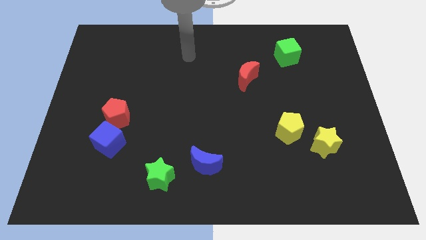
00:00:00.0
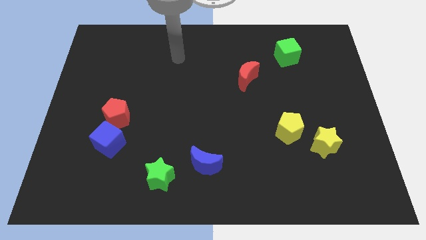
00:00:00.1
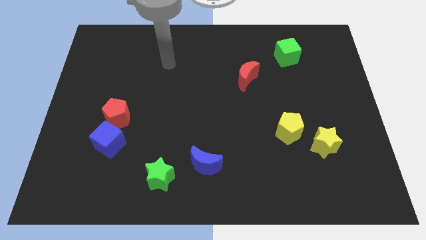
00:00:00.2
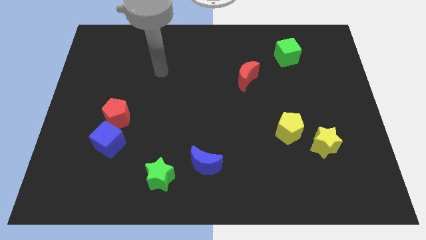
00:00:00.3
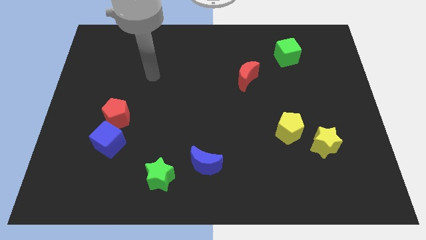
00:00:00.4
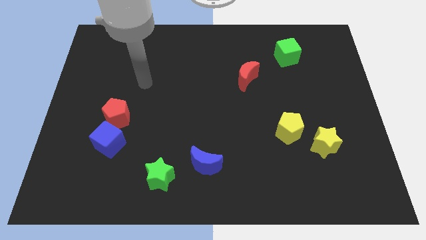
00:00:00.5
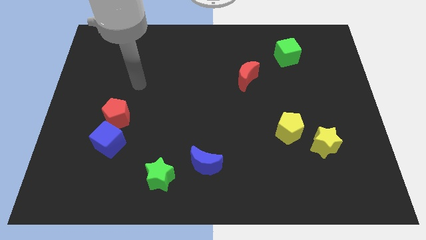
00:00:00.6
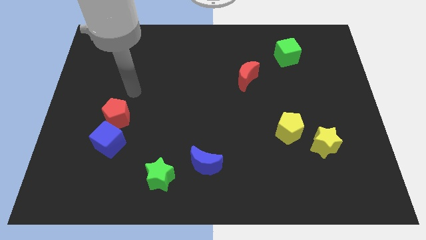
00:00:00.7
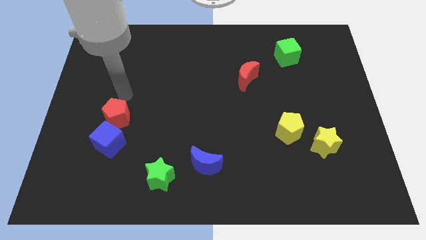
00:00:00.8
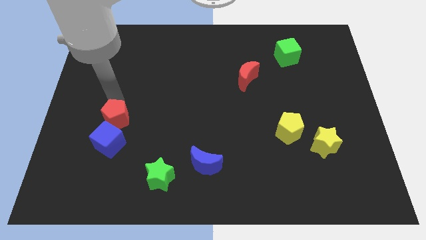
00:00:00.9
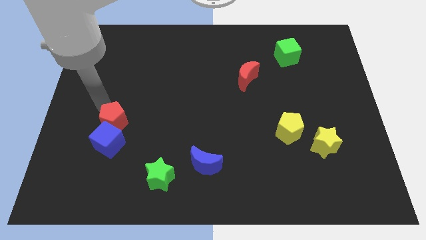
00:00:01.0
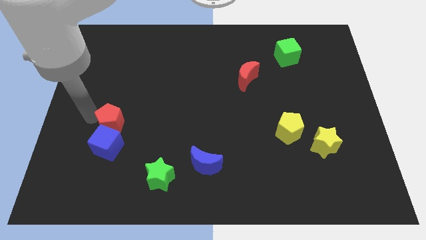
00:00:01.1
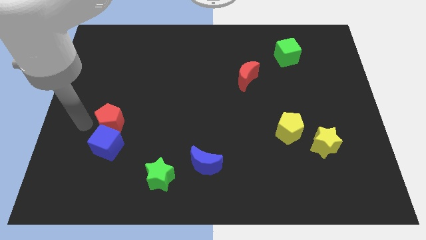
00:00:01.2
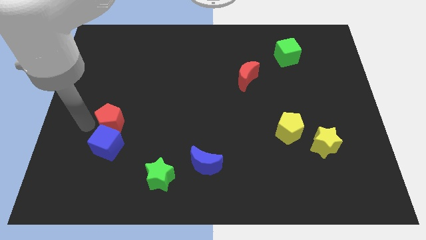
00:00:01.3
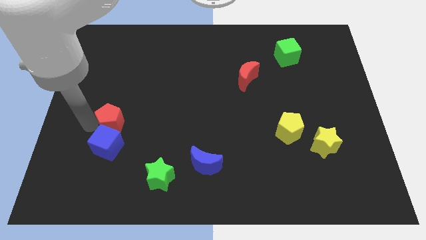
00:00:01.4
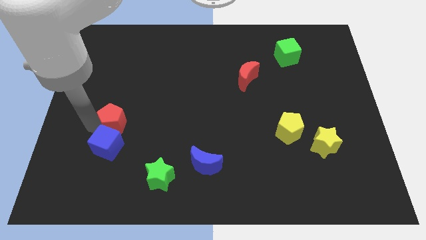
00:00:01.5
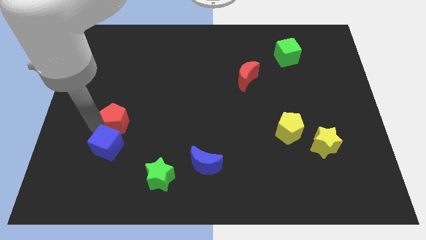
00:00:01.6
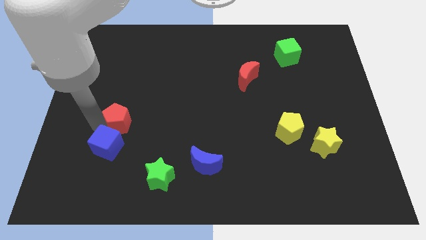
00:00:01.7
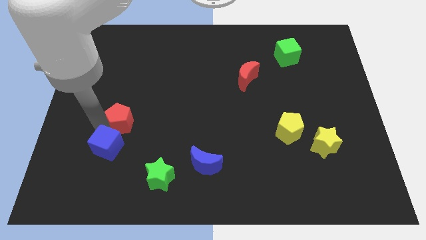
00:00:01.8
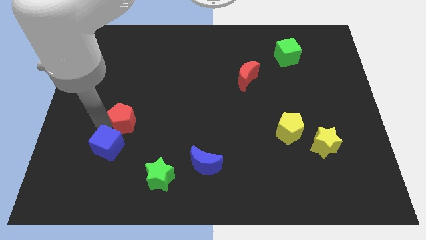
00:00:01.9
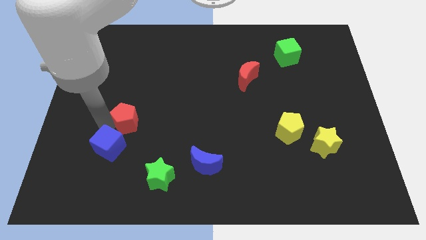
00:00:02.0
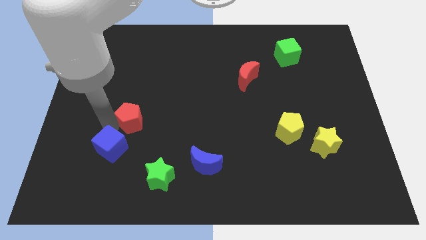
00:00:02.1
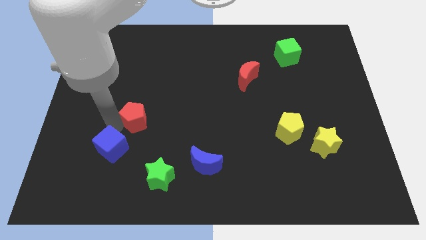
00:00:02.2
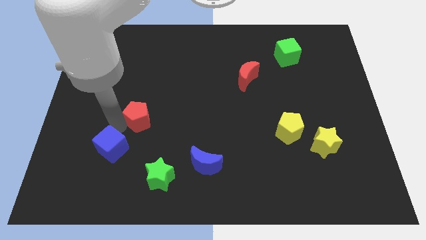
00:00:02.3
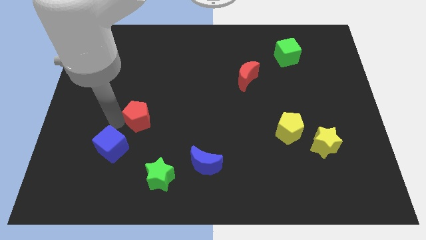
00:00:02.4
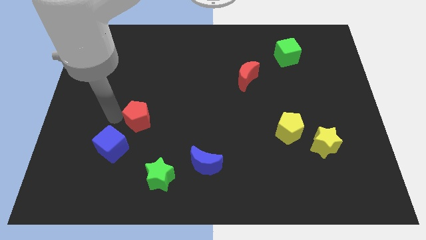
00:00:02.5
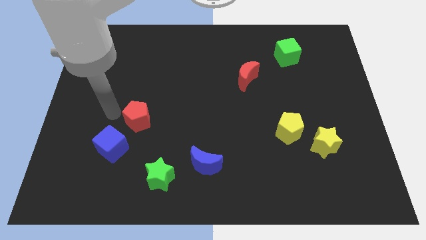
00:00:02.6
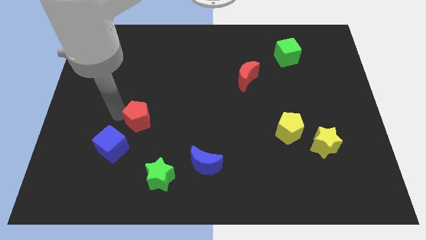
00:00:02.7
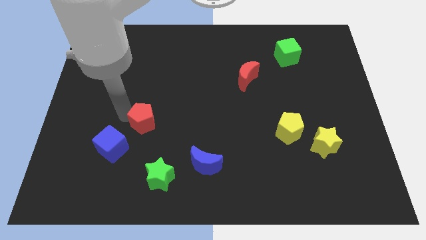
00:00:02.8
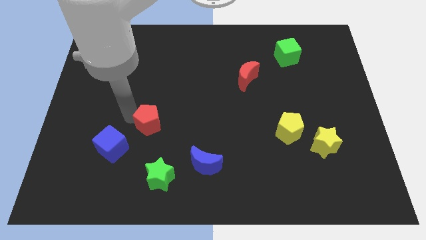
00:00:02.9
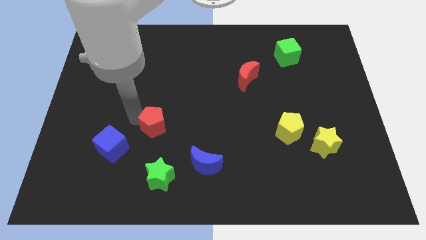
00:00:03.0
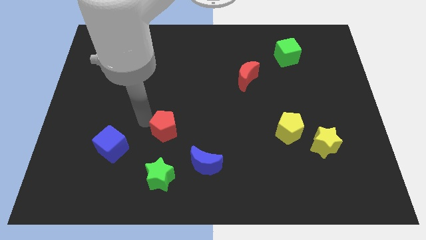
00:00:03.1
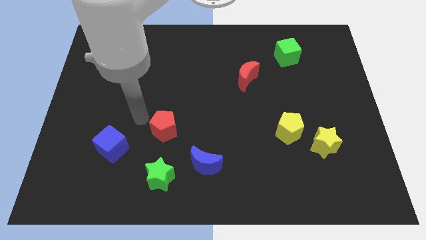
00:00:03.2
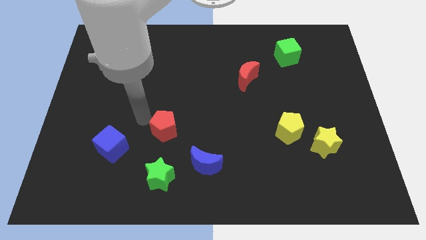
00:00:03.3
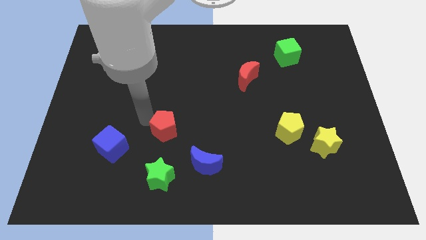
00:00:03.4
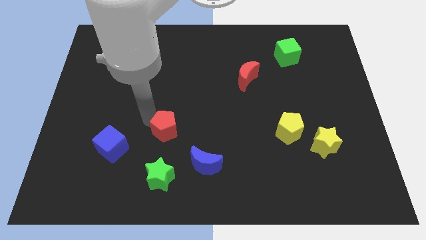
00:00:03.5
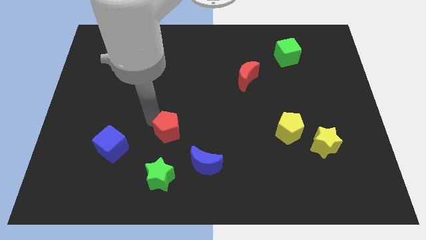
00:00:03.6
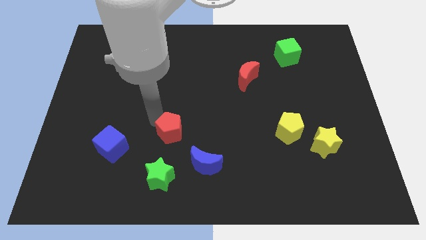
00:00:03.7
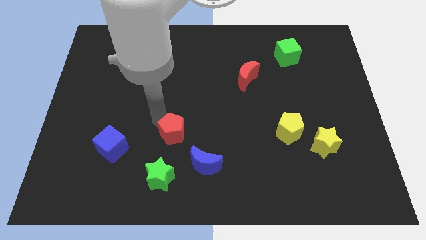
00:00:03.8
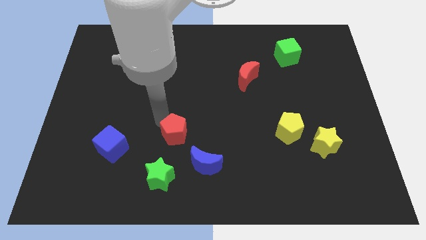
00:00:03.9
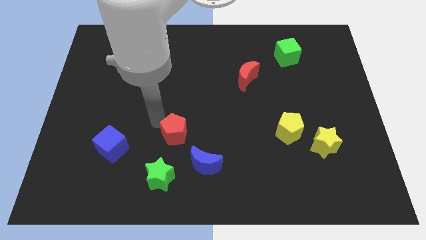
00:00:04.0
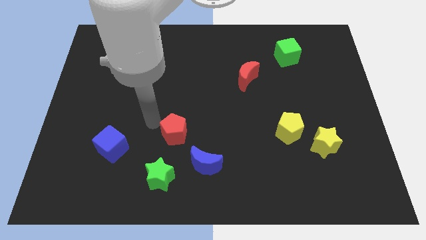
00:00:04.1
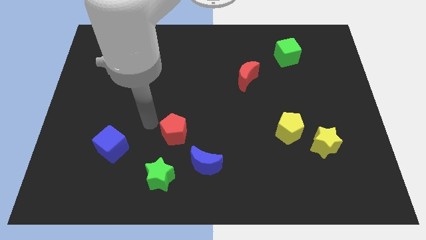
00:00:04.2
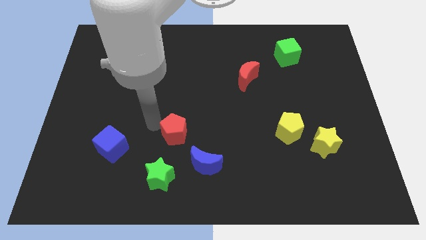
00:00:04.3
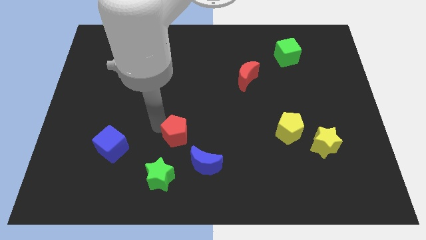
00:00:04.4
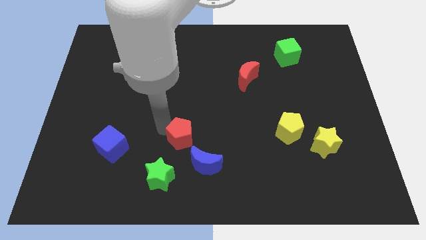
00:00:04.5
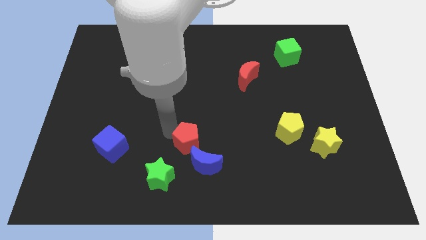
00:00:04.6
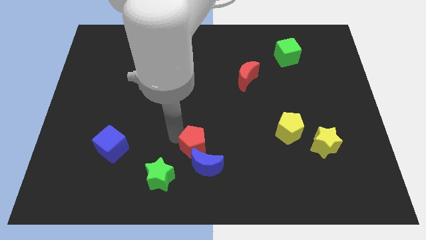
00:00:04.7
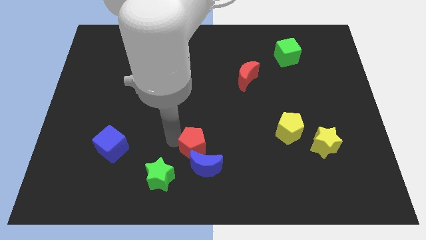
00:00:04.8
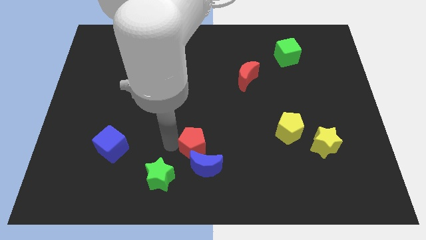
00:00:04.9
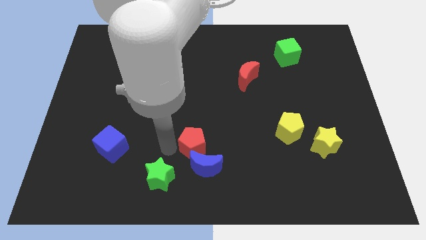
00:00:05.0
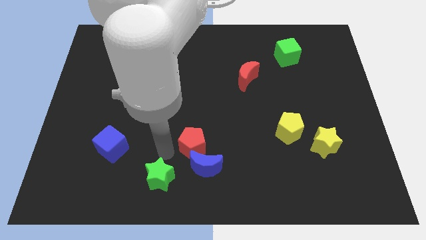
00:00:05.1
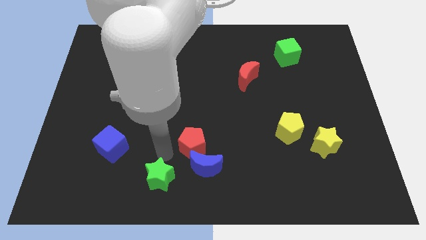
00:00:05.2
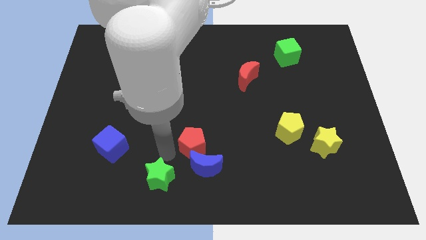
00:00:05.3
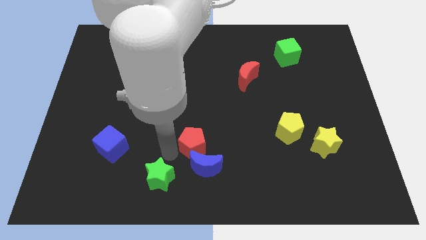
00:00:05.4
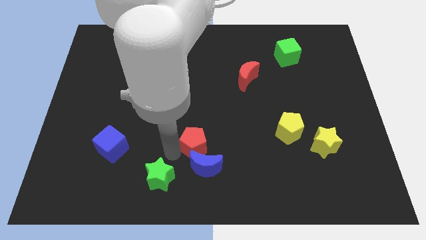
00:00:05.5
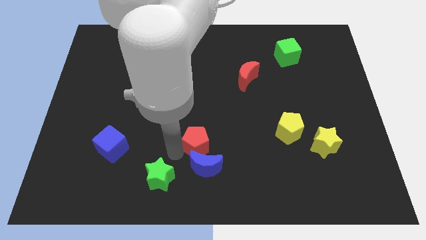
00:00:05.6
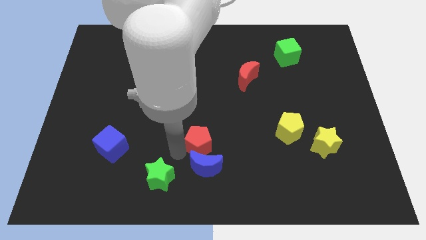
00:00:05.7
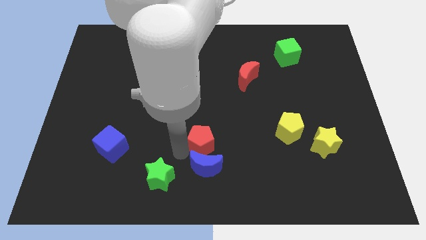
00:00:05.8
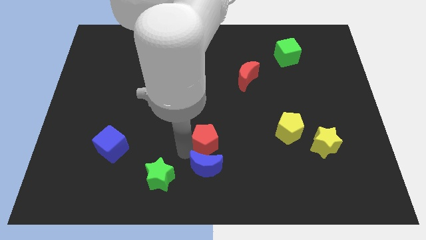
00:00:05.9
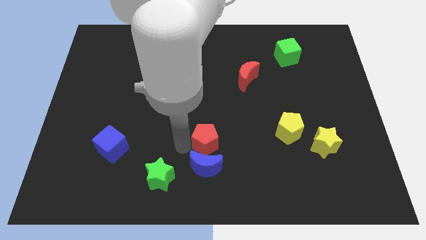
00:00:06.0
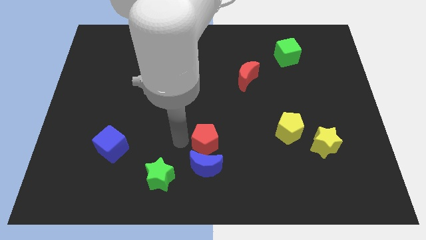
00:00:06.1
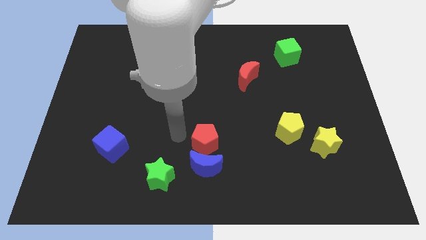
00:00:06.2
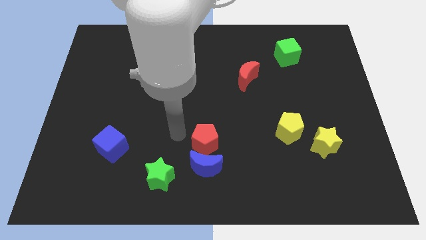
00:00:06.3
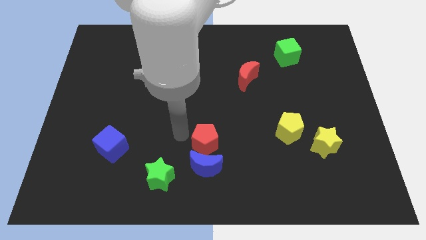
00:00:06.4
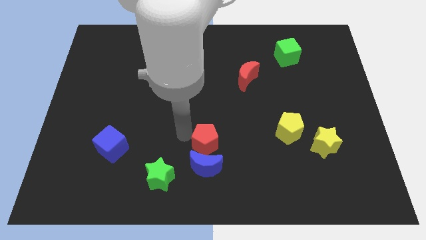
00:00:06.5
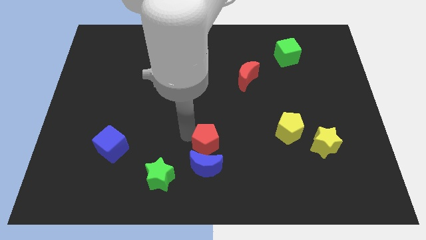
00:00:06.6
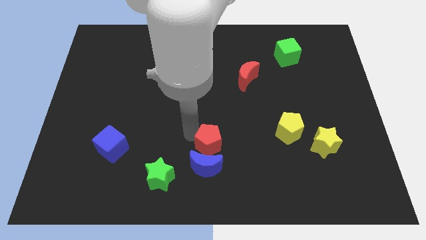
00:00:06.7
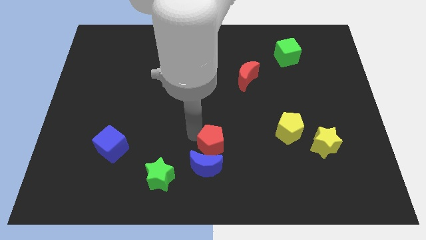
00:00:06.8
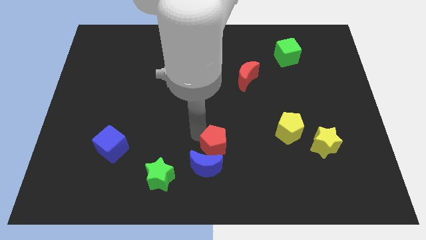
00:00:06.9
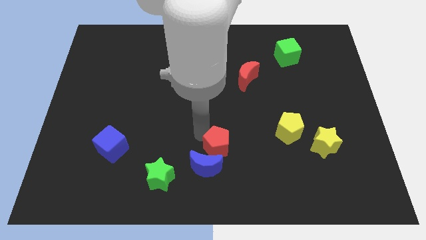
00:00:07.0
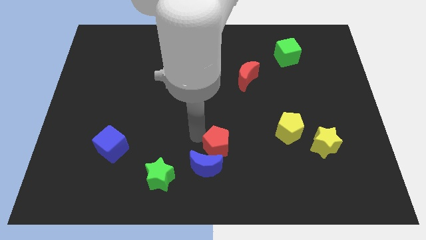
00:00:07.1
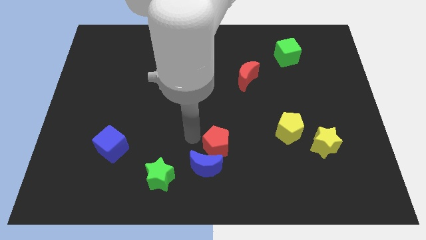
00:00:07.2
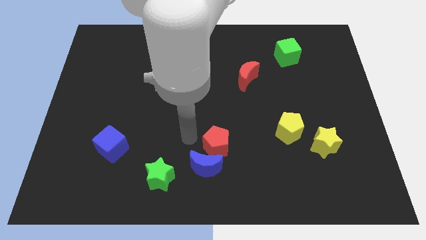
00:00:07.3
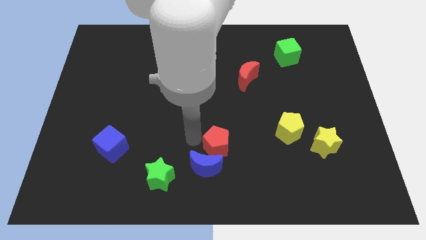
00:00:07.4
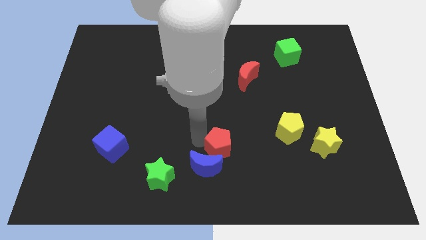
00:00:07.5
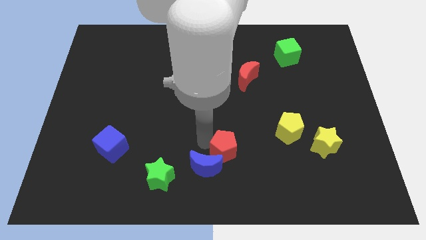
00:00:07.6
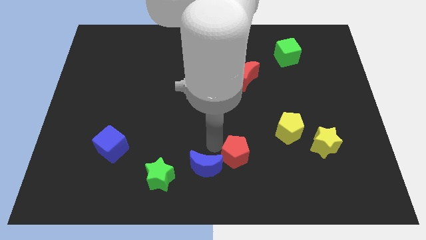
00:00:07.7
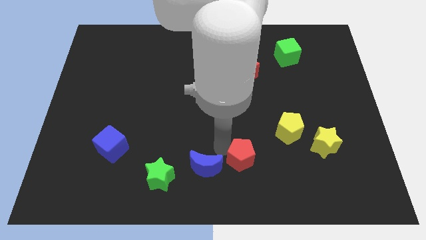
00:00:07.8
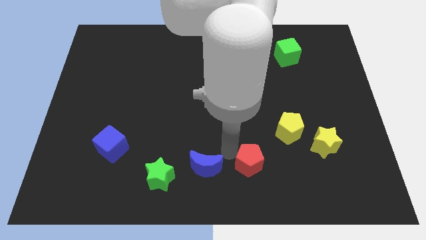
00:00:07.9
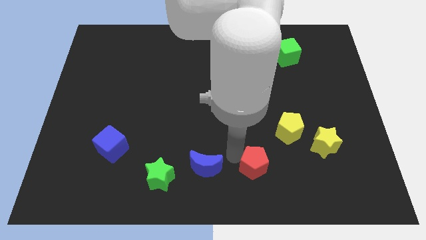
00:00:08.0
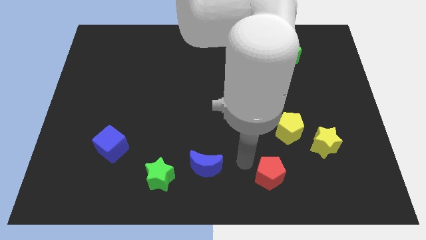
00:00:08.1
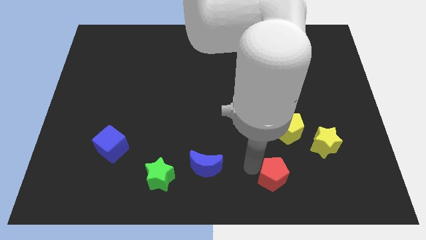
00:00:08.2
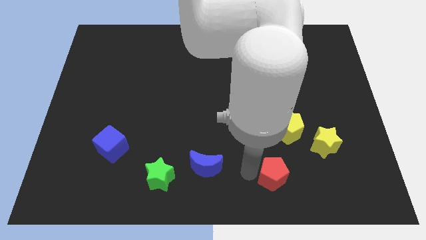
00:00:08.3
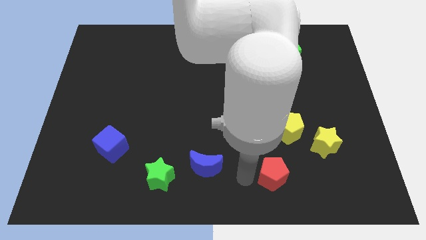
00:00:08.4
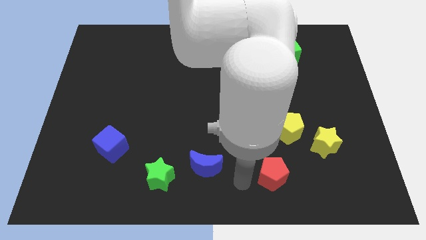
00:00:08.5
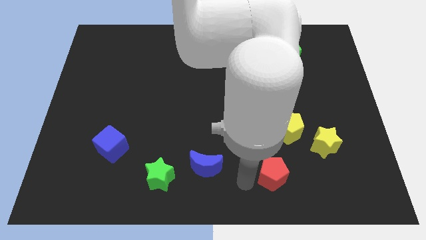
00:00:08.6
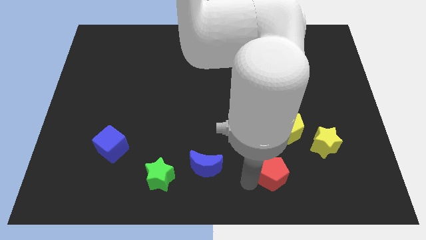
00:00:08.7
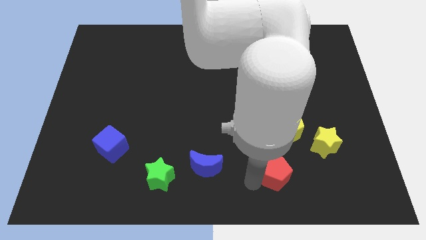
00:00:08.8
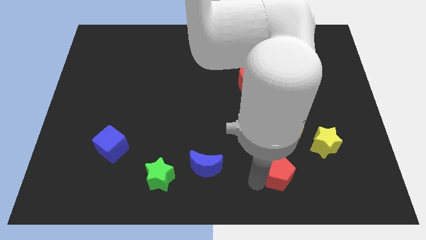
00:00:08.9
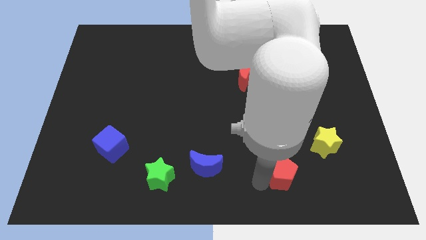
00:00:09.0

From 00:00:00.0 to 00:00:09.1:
push the red pentagon to the bottom left of the yellow star
